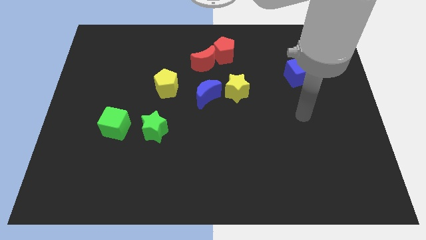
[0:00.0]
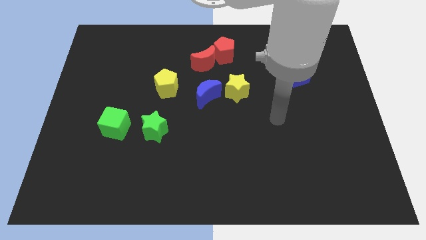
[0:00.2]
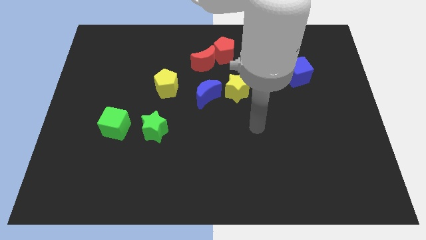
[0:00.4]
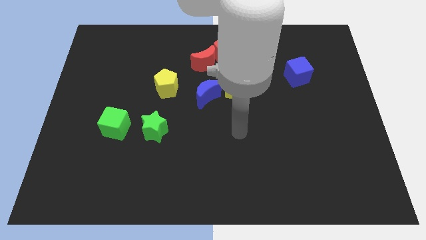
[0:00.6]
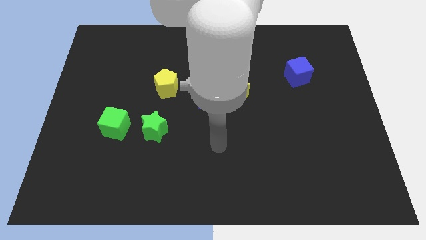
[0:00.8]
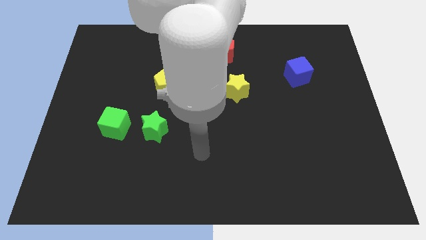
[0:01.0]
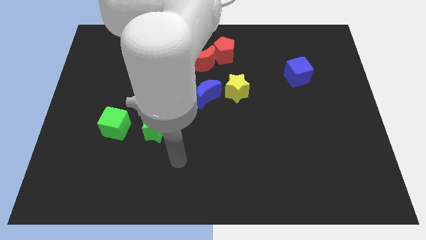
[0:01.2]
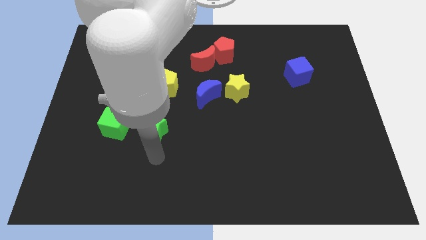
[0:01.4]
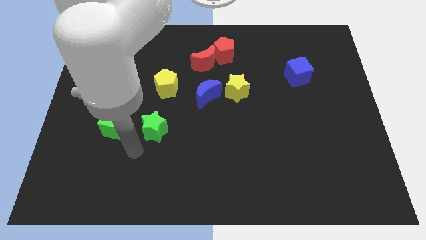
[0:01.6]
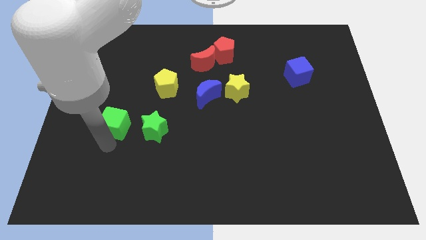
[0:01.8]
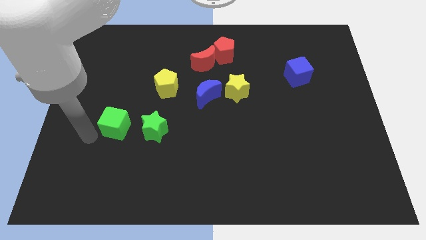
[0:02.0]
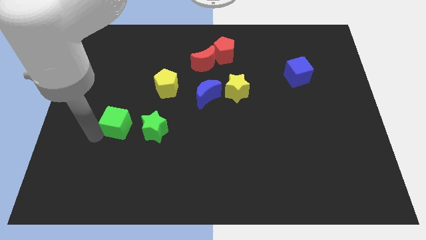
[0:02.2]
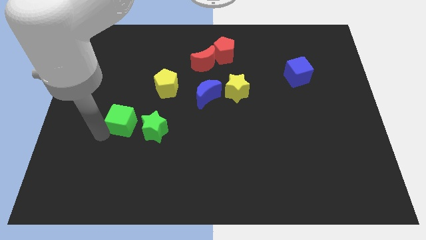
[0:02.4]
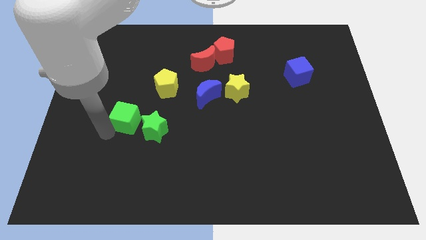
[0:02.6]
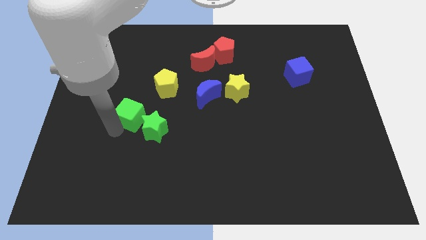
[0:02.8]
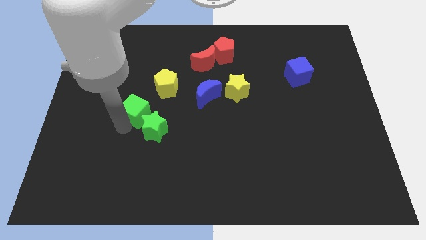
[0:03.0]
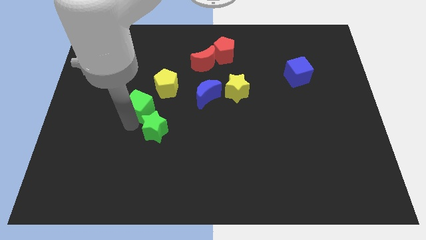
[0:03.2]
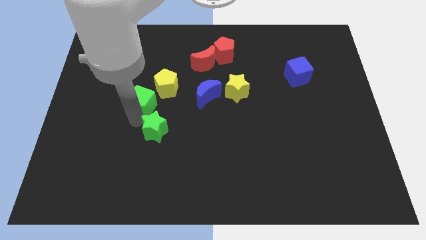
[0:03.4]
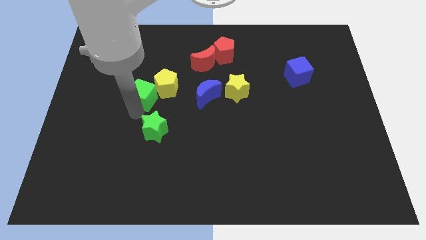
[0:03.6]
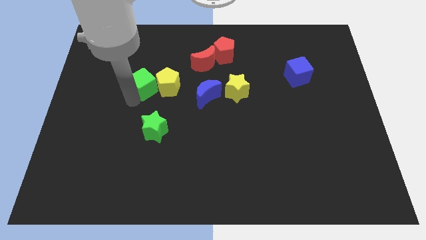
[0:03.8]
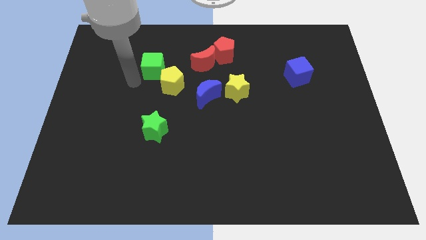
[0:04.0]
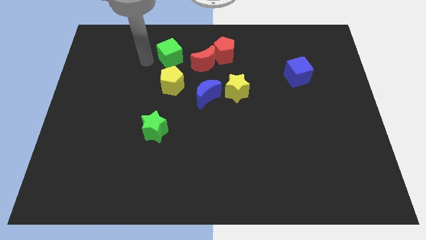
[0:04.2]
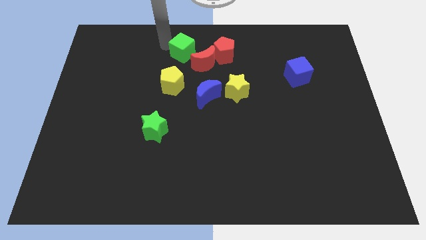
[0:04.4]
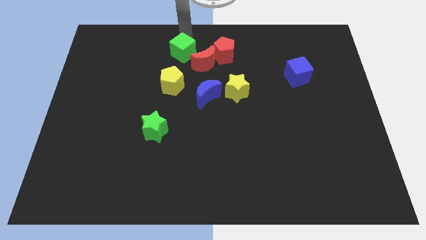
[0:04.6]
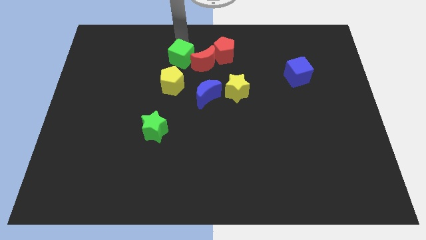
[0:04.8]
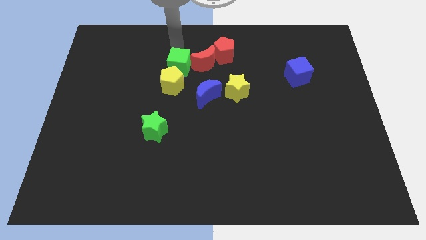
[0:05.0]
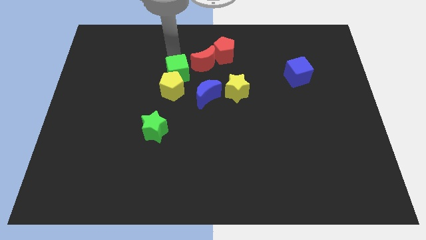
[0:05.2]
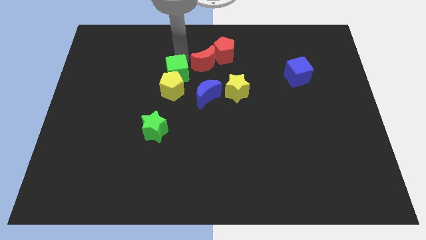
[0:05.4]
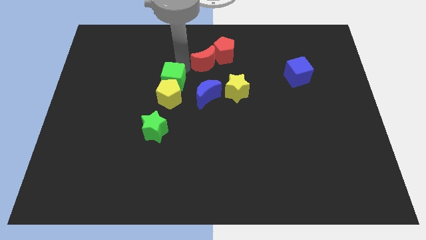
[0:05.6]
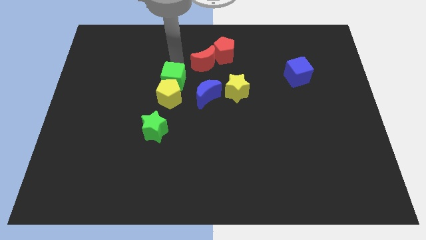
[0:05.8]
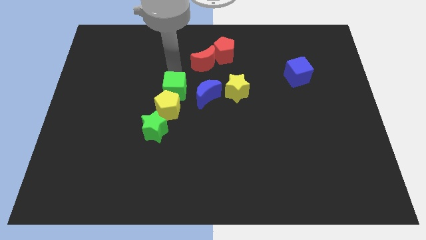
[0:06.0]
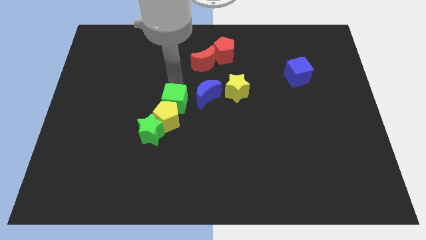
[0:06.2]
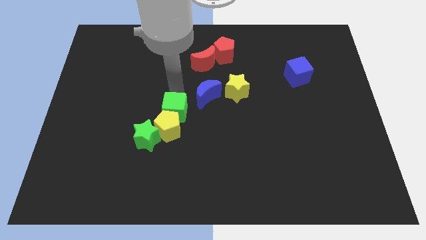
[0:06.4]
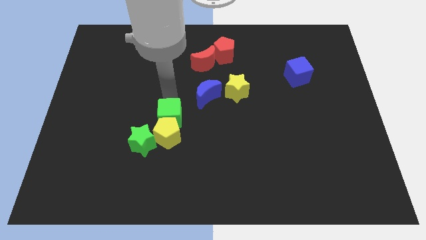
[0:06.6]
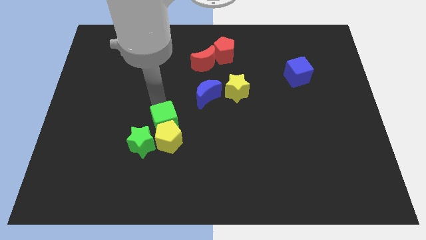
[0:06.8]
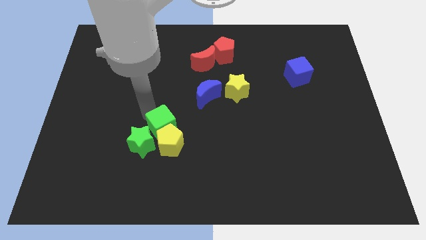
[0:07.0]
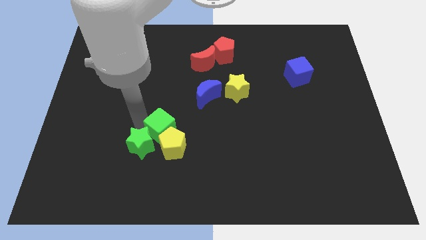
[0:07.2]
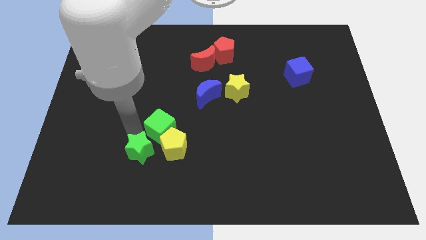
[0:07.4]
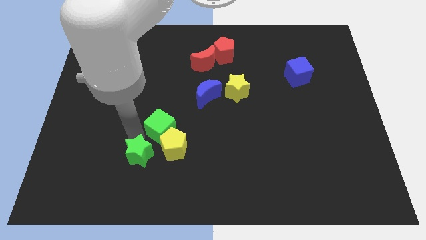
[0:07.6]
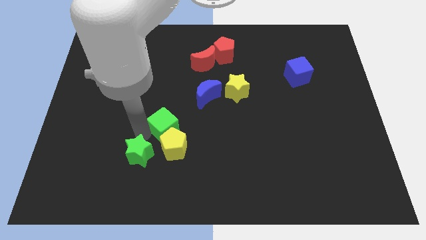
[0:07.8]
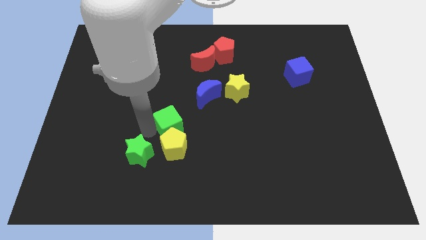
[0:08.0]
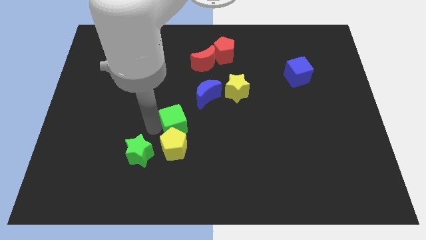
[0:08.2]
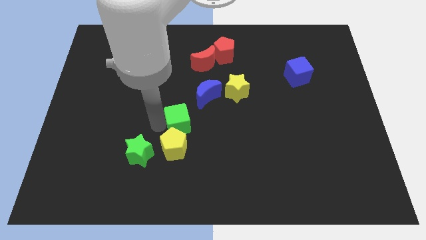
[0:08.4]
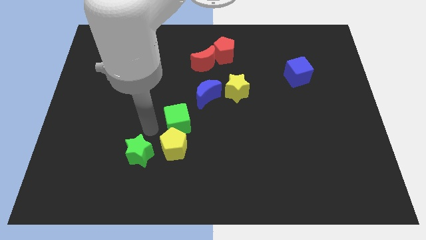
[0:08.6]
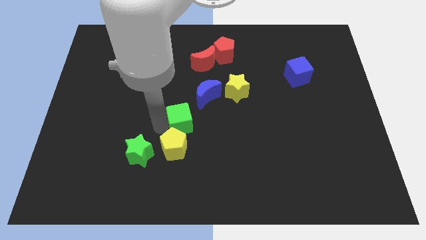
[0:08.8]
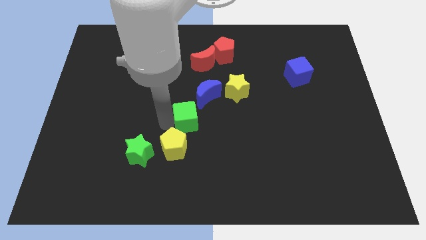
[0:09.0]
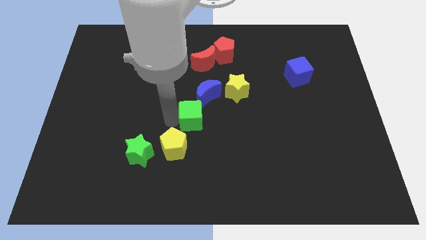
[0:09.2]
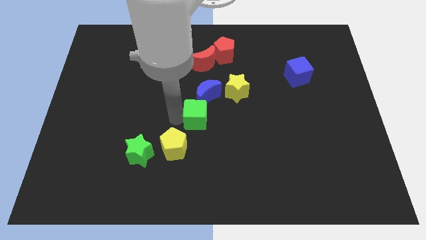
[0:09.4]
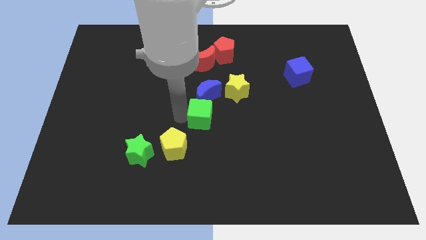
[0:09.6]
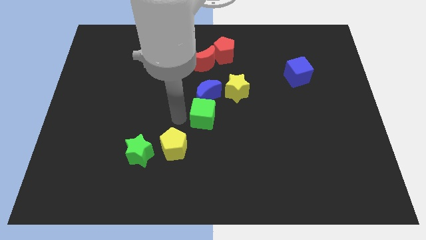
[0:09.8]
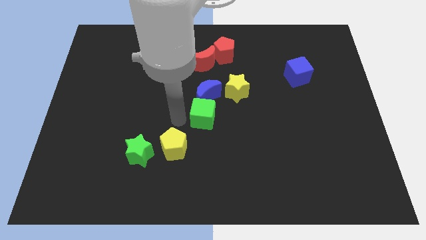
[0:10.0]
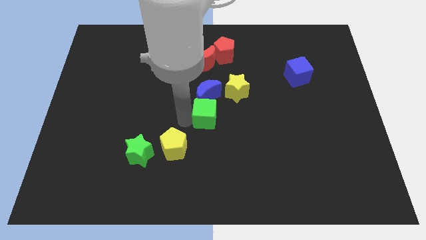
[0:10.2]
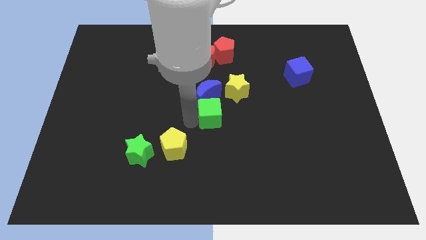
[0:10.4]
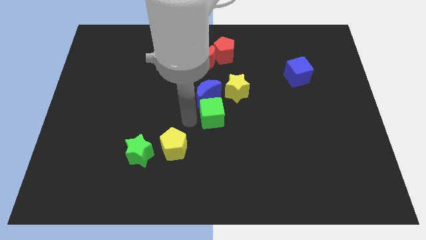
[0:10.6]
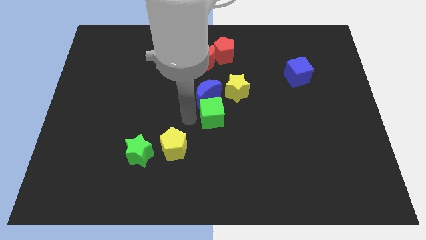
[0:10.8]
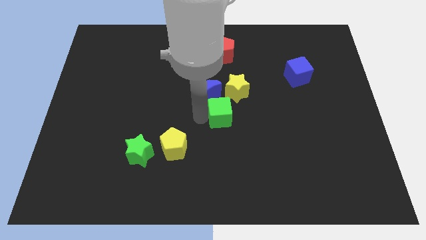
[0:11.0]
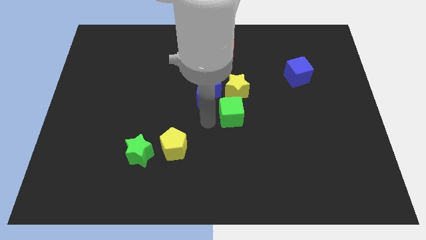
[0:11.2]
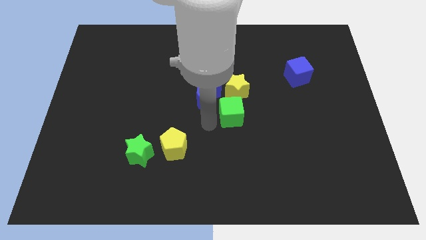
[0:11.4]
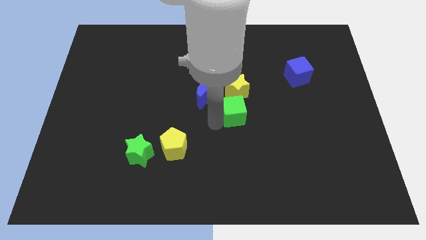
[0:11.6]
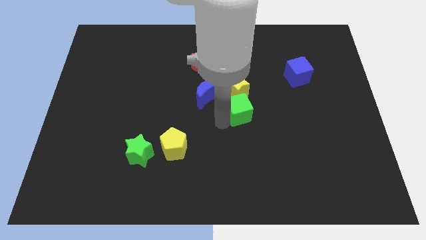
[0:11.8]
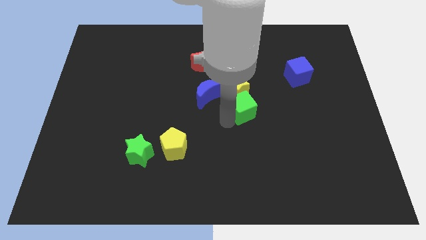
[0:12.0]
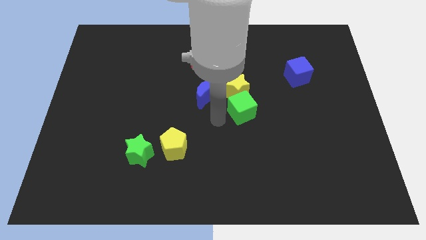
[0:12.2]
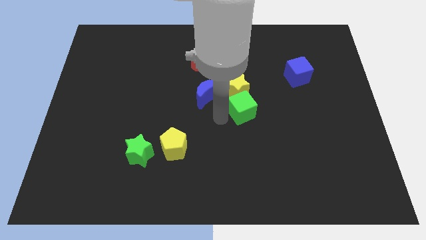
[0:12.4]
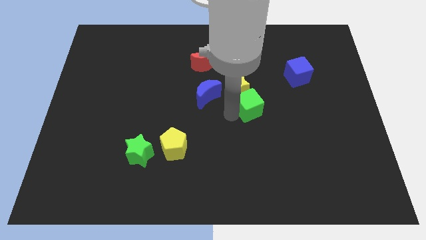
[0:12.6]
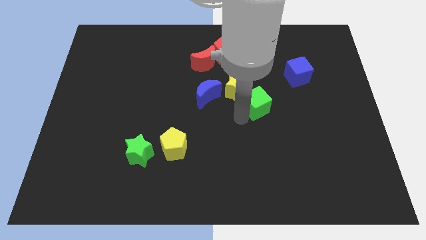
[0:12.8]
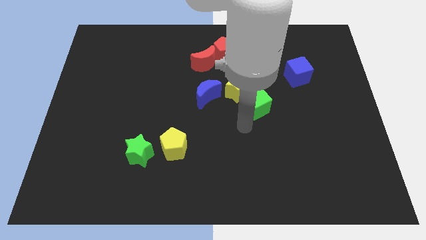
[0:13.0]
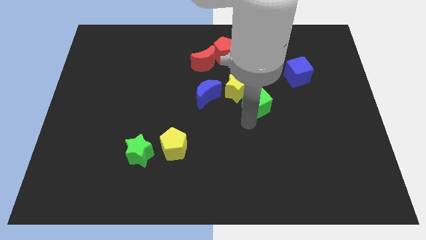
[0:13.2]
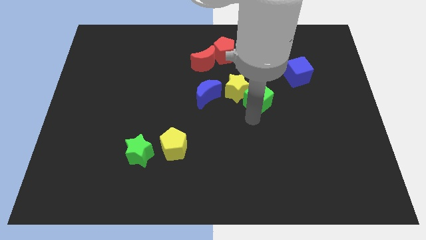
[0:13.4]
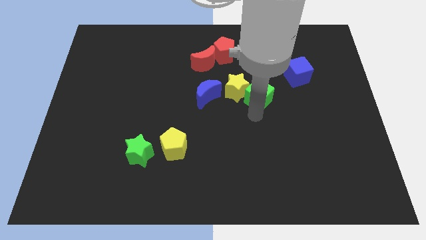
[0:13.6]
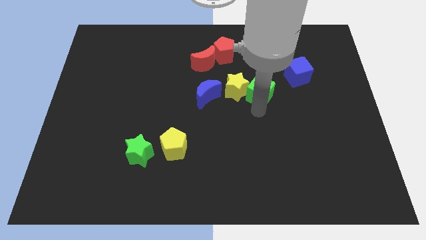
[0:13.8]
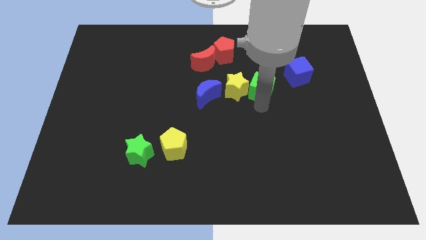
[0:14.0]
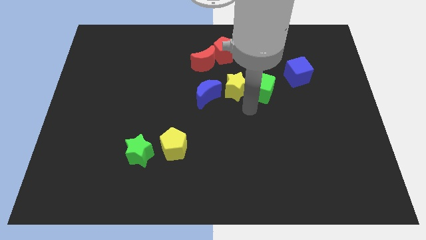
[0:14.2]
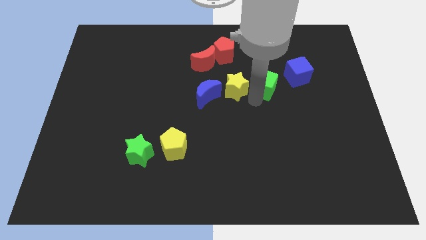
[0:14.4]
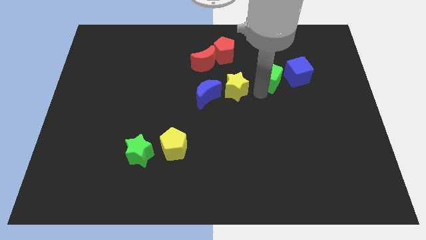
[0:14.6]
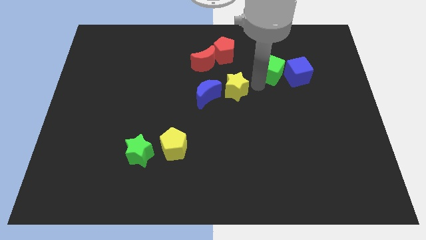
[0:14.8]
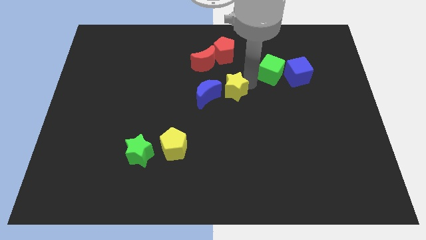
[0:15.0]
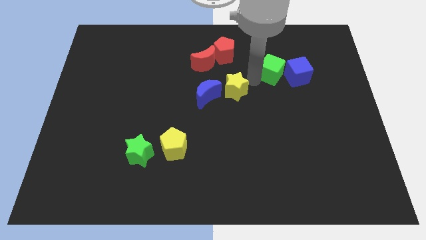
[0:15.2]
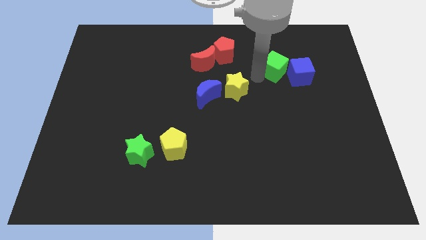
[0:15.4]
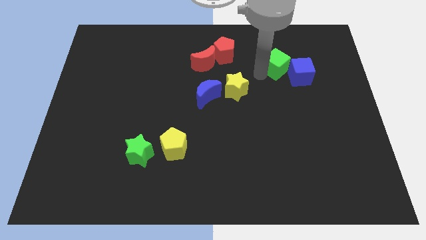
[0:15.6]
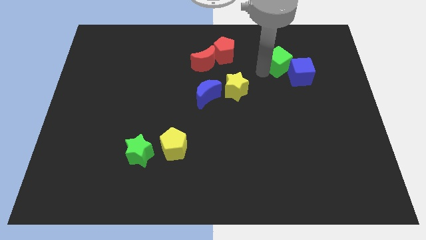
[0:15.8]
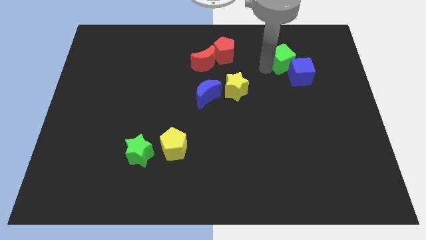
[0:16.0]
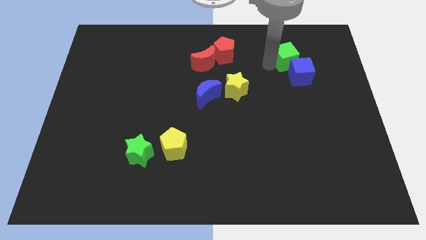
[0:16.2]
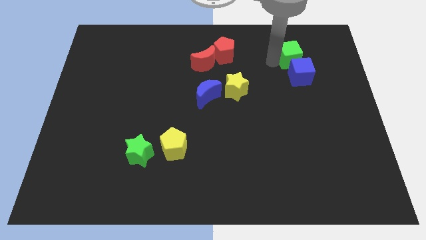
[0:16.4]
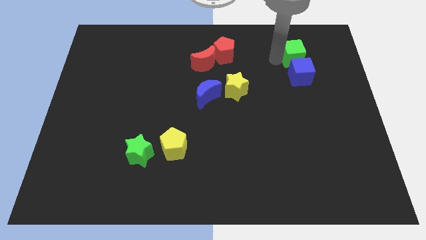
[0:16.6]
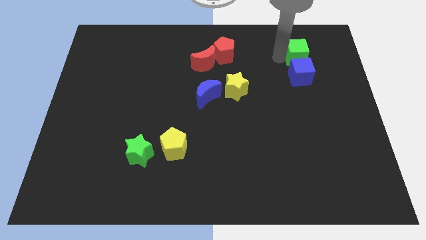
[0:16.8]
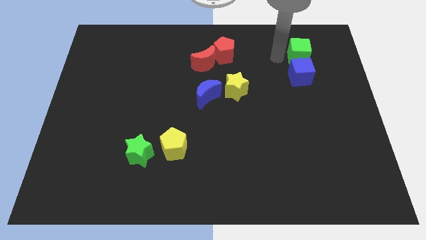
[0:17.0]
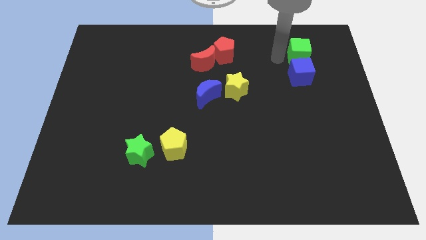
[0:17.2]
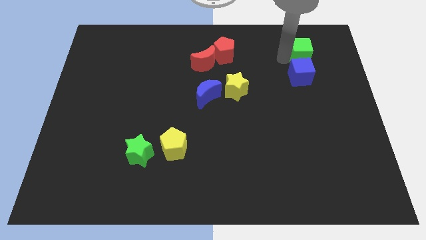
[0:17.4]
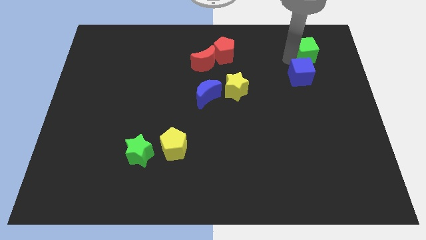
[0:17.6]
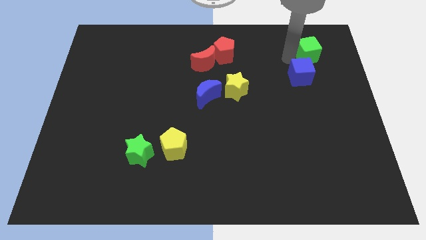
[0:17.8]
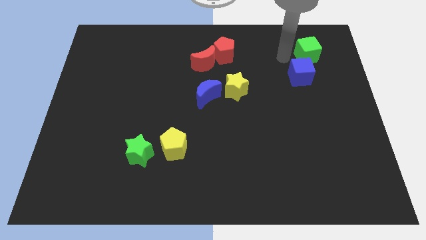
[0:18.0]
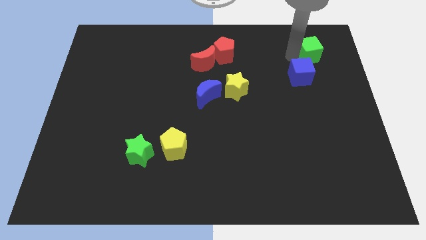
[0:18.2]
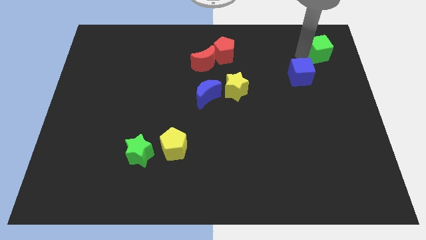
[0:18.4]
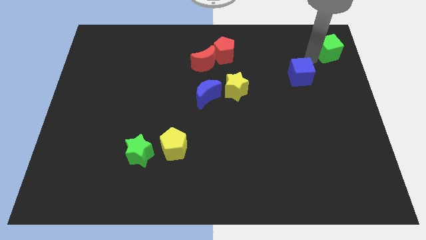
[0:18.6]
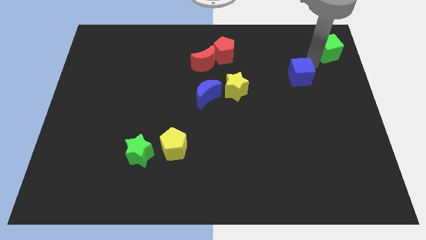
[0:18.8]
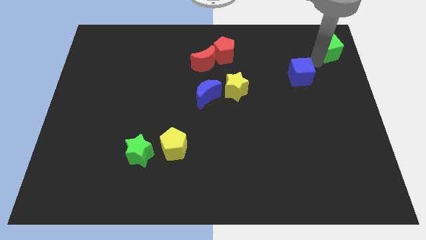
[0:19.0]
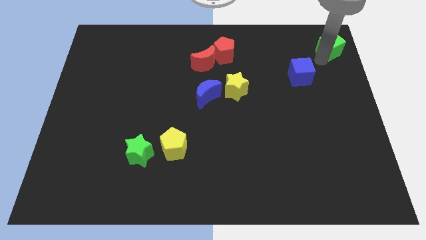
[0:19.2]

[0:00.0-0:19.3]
push the green cube to the top right of the board
